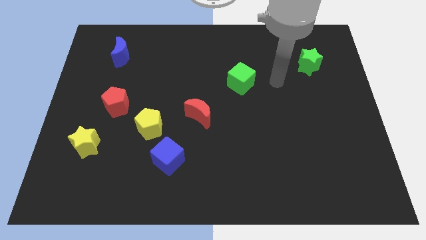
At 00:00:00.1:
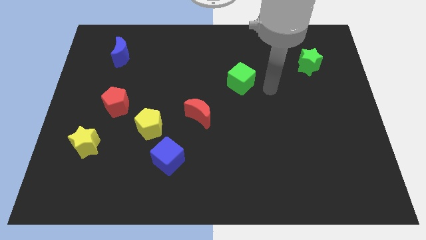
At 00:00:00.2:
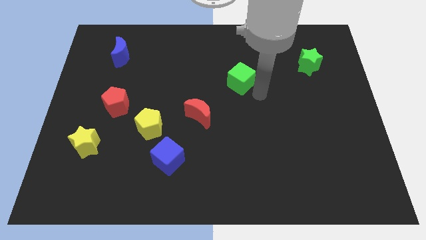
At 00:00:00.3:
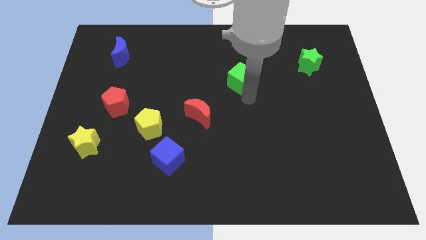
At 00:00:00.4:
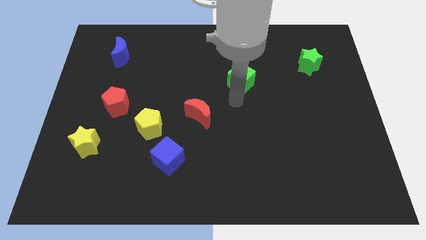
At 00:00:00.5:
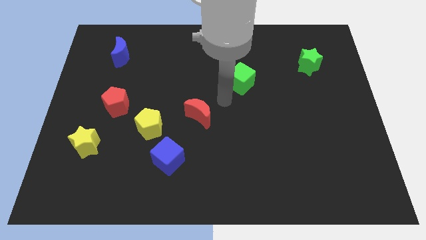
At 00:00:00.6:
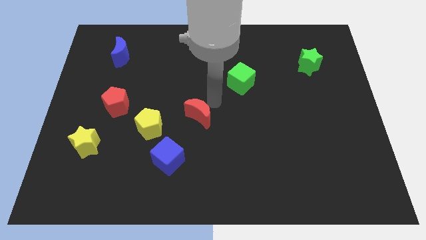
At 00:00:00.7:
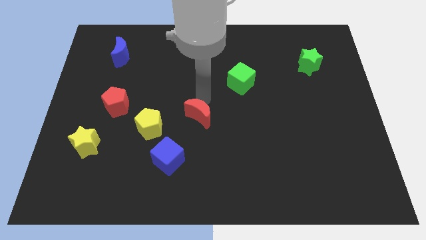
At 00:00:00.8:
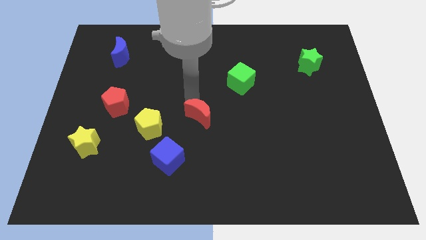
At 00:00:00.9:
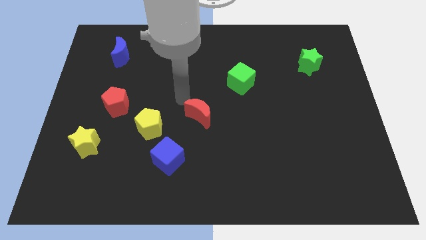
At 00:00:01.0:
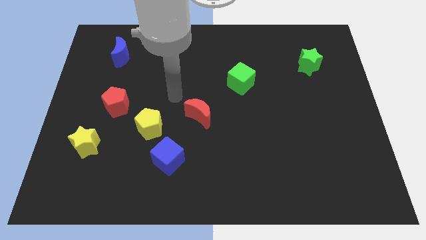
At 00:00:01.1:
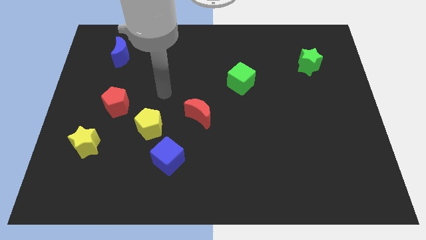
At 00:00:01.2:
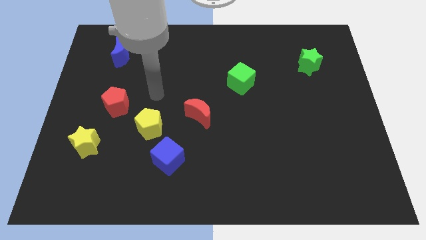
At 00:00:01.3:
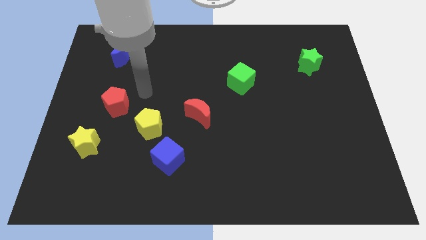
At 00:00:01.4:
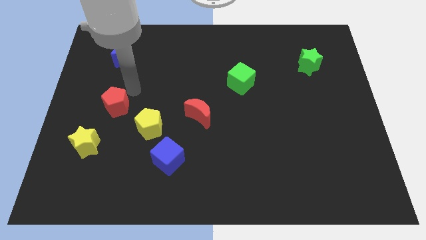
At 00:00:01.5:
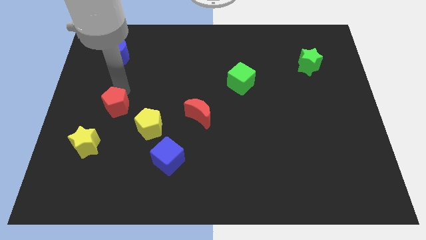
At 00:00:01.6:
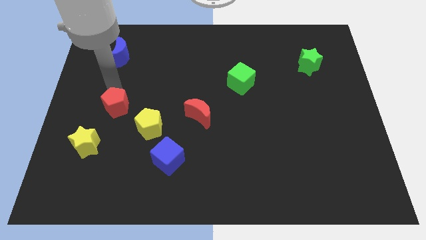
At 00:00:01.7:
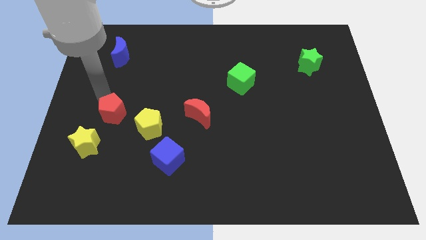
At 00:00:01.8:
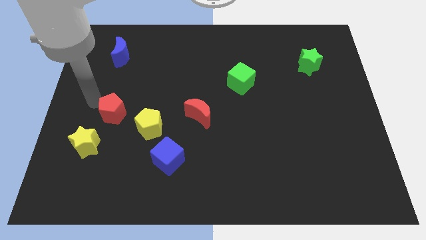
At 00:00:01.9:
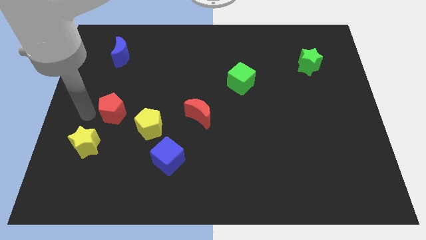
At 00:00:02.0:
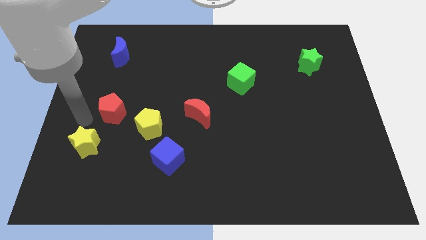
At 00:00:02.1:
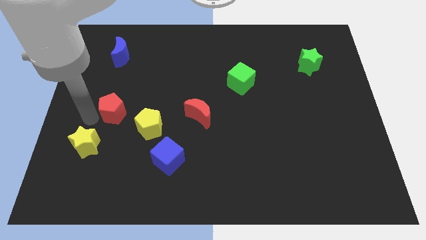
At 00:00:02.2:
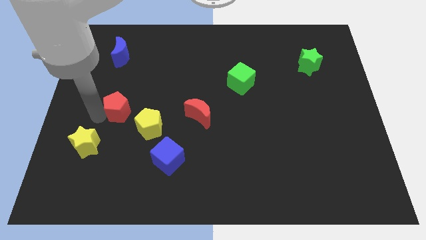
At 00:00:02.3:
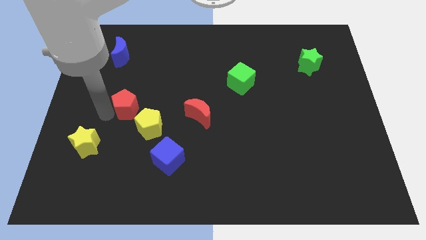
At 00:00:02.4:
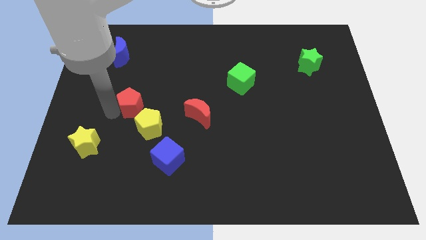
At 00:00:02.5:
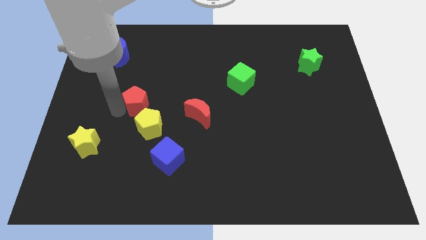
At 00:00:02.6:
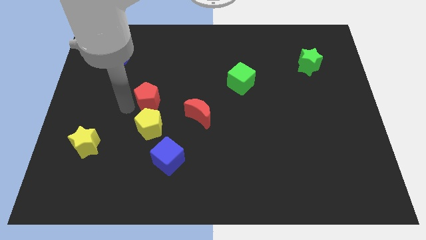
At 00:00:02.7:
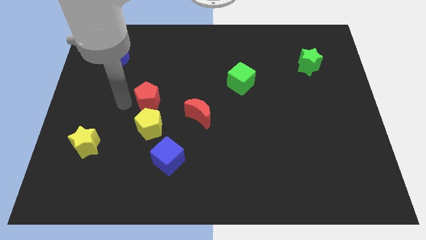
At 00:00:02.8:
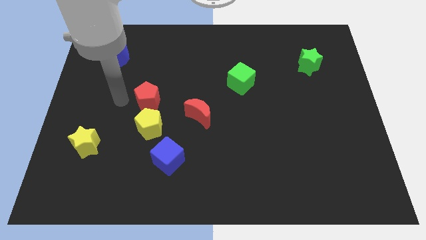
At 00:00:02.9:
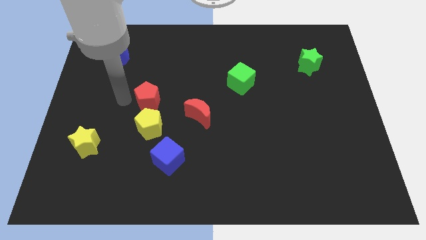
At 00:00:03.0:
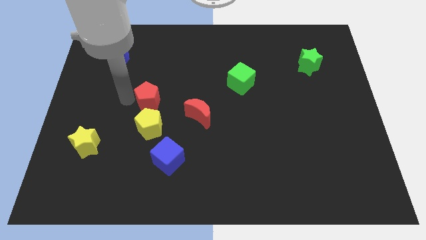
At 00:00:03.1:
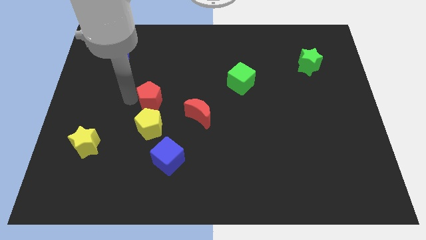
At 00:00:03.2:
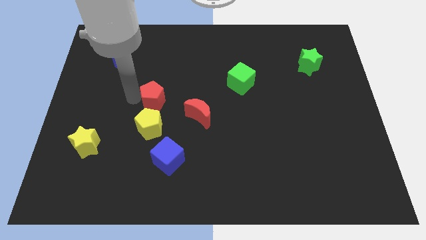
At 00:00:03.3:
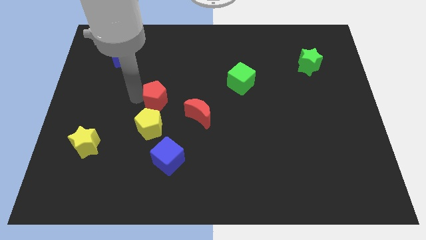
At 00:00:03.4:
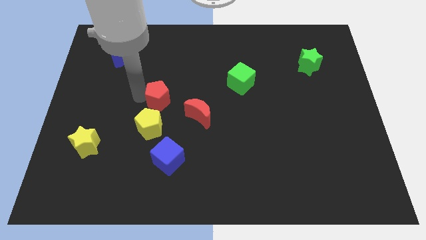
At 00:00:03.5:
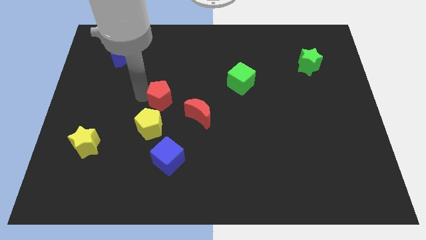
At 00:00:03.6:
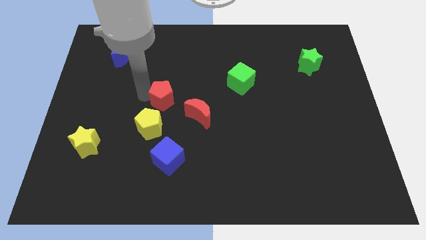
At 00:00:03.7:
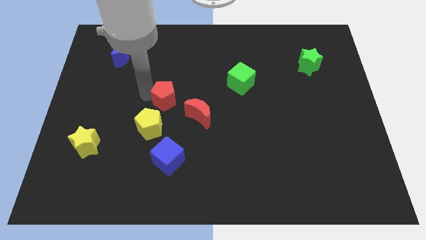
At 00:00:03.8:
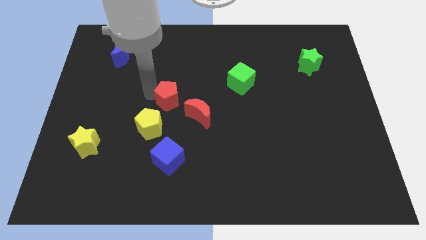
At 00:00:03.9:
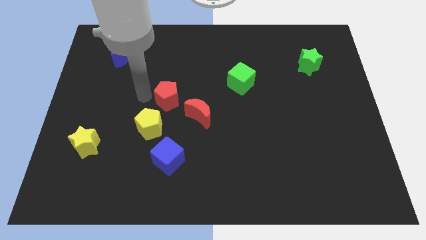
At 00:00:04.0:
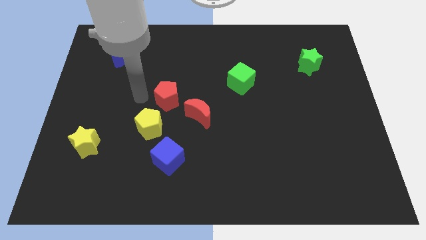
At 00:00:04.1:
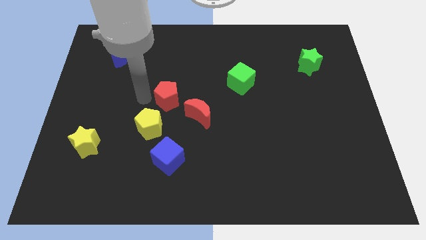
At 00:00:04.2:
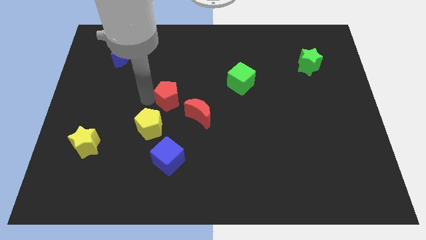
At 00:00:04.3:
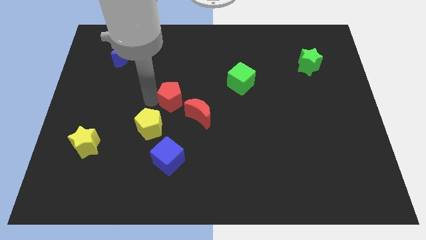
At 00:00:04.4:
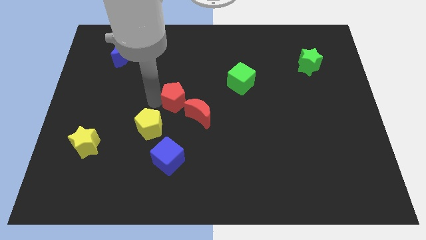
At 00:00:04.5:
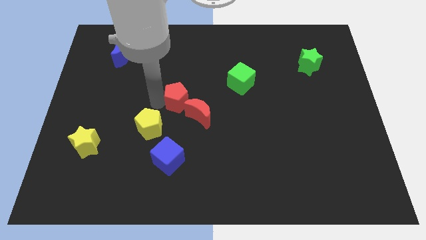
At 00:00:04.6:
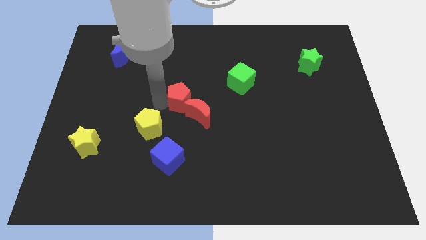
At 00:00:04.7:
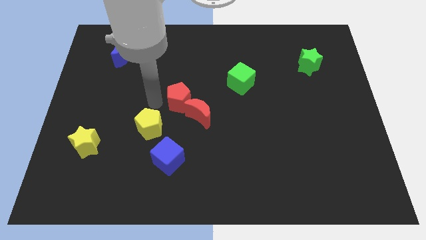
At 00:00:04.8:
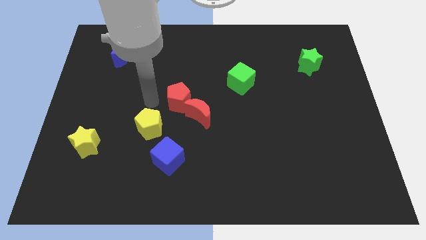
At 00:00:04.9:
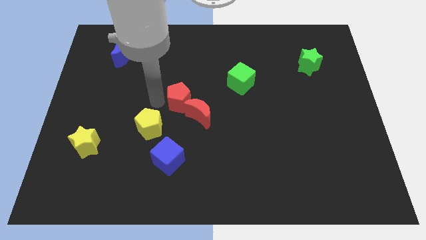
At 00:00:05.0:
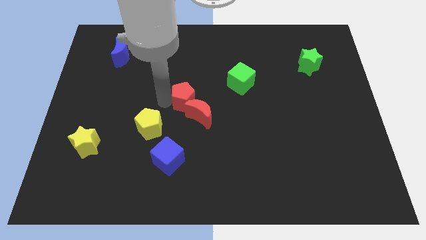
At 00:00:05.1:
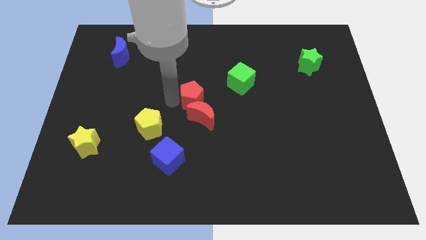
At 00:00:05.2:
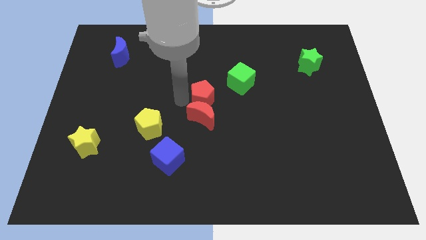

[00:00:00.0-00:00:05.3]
push the red pentagon to the top right side of the red moon
